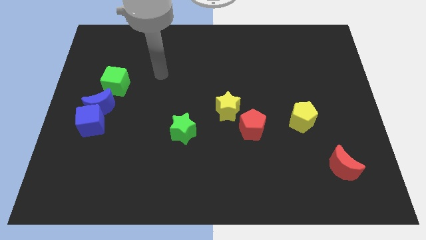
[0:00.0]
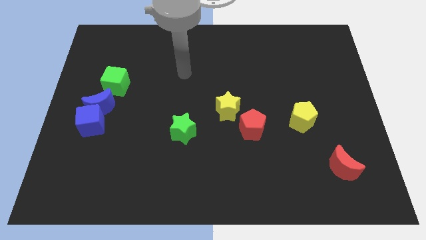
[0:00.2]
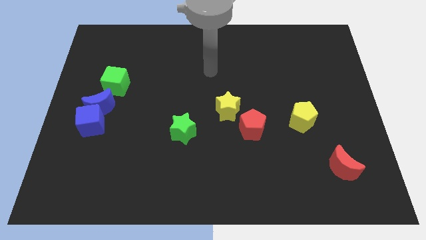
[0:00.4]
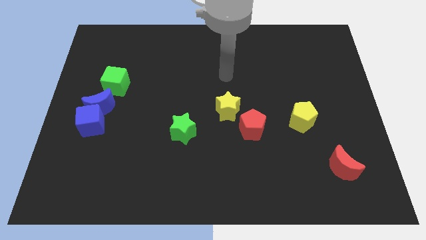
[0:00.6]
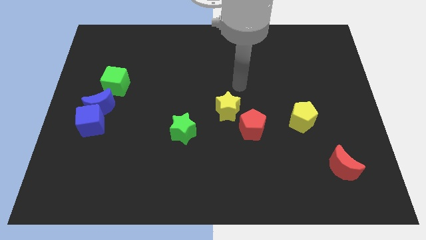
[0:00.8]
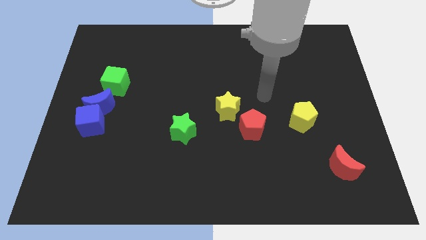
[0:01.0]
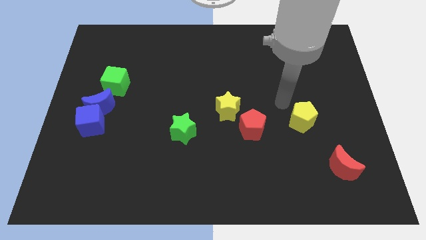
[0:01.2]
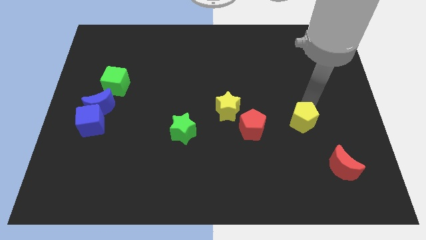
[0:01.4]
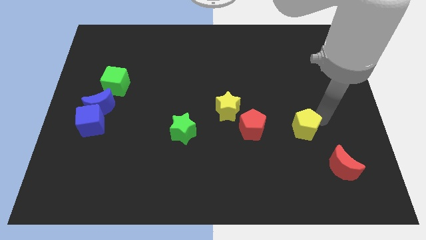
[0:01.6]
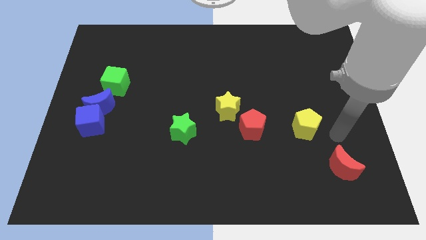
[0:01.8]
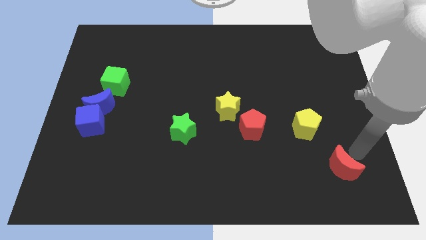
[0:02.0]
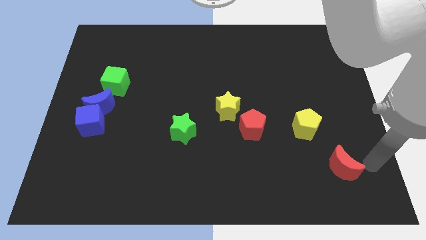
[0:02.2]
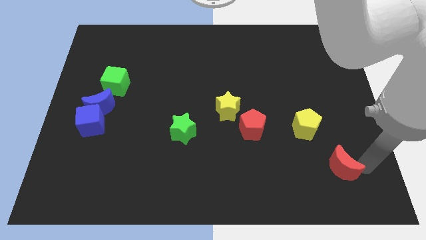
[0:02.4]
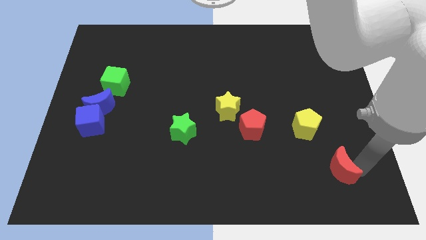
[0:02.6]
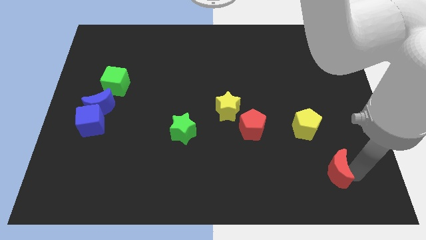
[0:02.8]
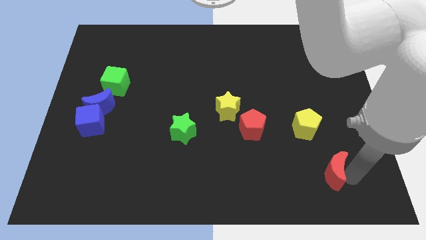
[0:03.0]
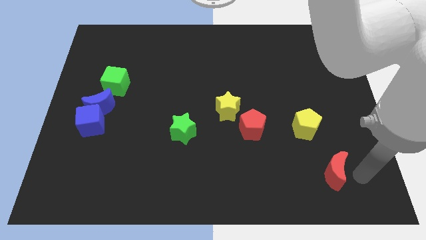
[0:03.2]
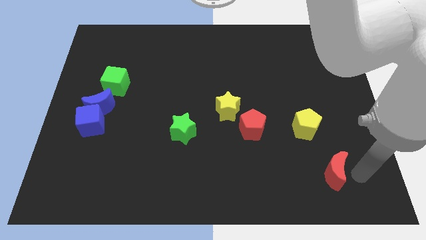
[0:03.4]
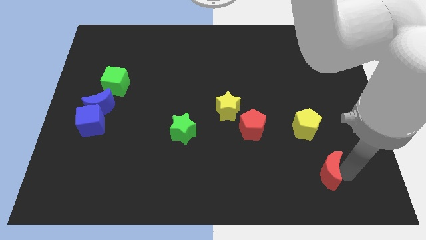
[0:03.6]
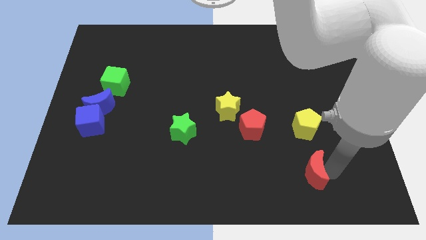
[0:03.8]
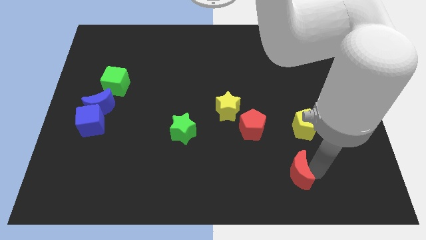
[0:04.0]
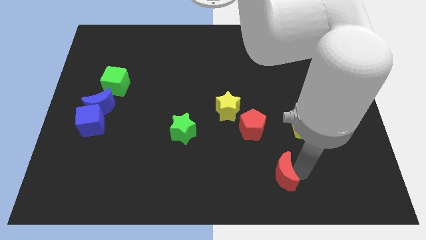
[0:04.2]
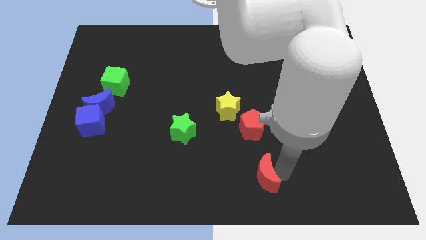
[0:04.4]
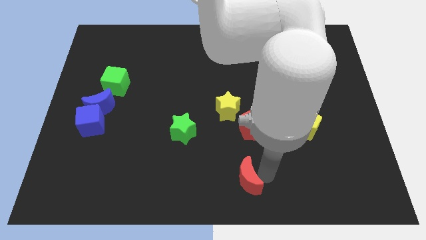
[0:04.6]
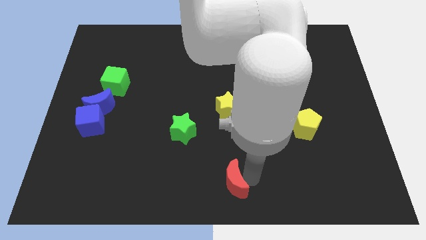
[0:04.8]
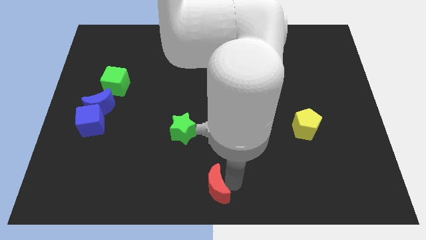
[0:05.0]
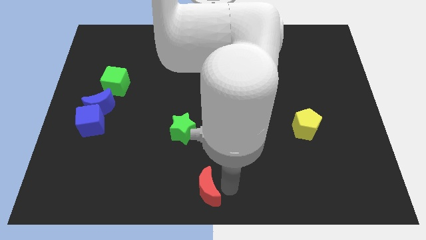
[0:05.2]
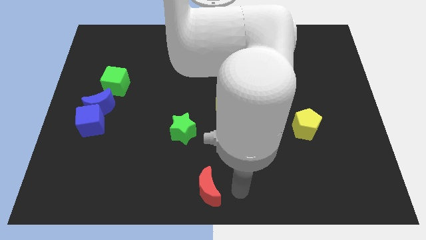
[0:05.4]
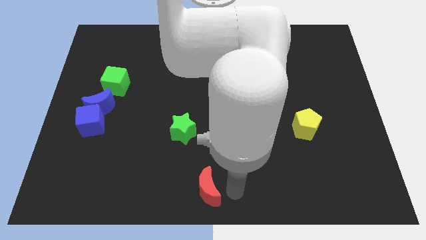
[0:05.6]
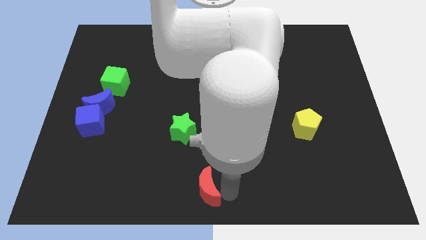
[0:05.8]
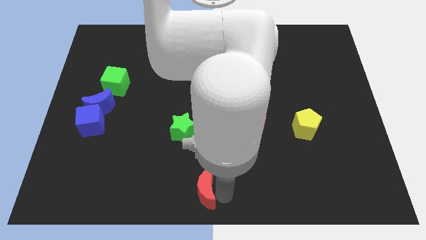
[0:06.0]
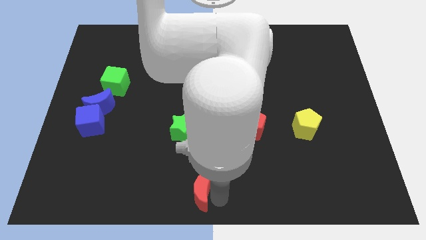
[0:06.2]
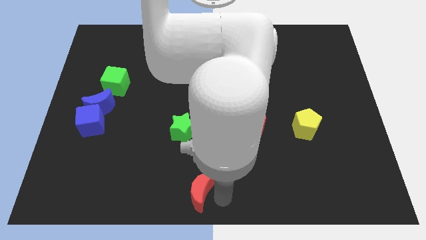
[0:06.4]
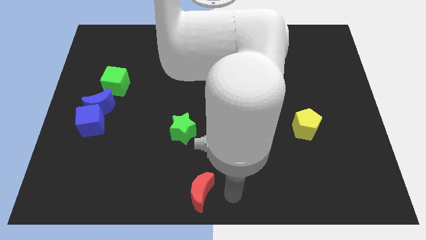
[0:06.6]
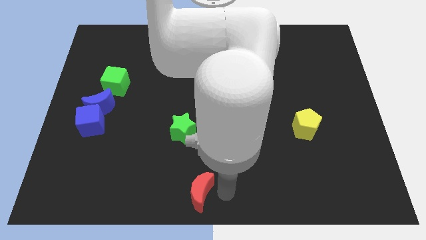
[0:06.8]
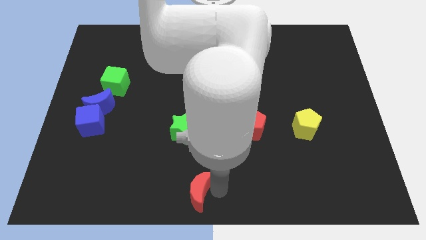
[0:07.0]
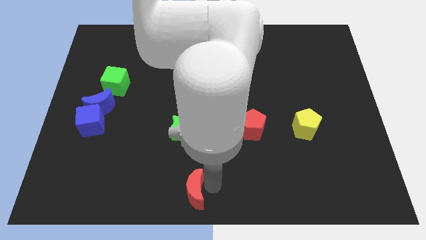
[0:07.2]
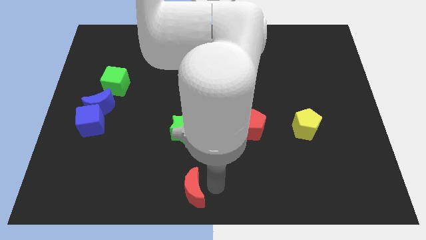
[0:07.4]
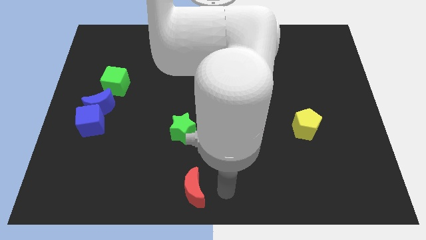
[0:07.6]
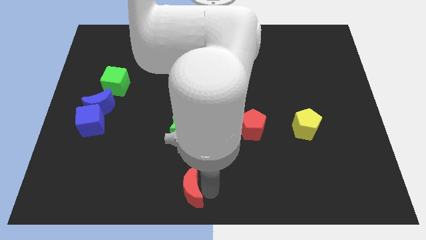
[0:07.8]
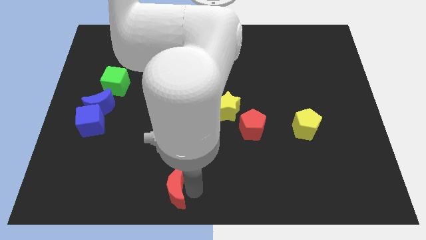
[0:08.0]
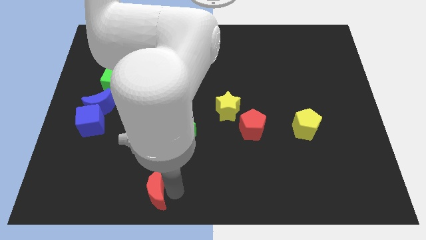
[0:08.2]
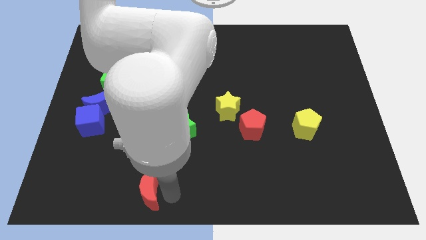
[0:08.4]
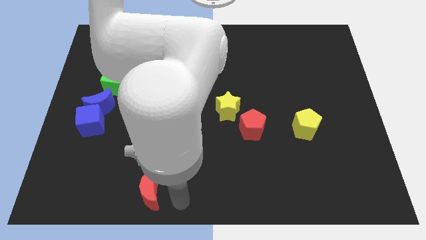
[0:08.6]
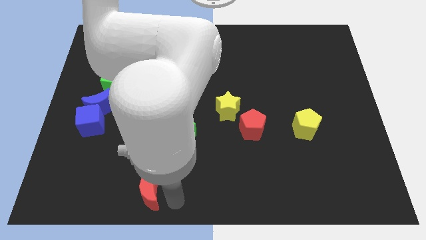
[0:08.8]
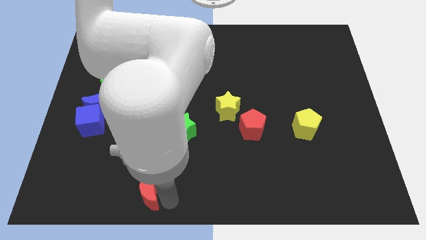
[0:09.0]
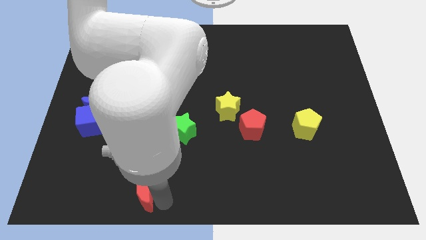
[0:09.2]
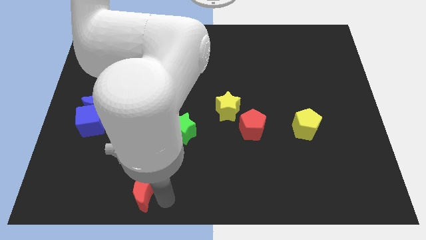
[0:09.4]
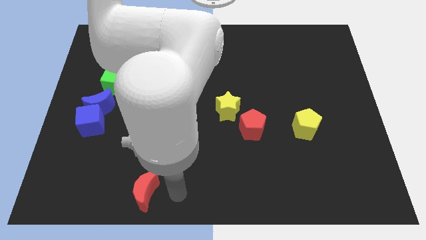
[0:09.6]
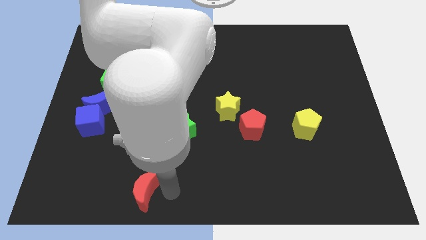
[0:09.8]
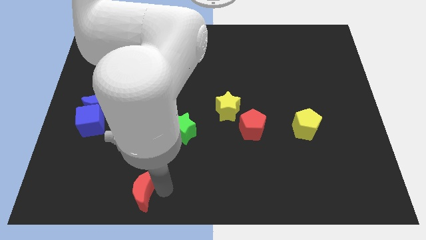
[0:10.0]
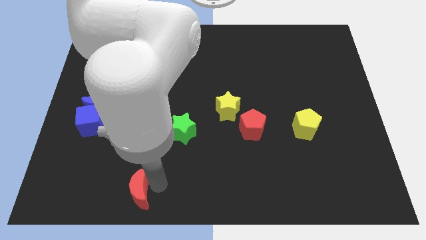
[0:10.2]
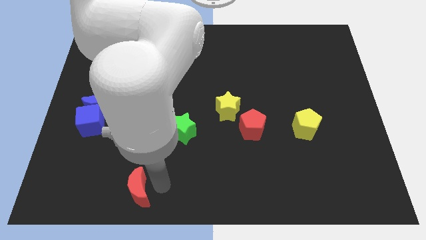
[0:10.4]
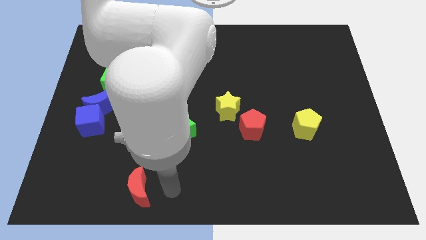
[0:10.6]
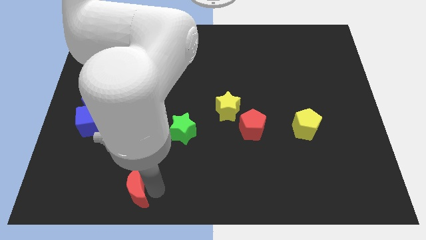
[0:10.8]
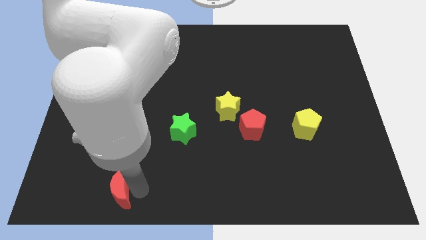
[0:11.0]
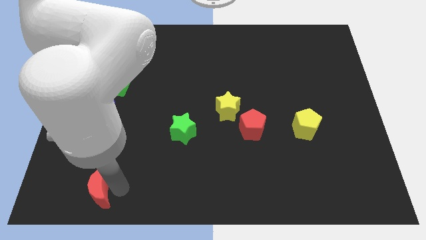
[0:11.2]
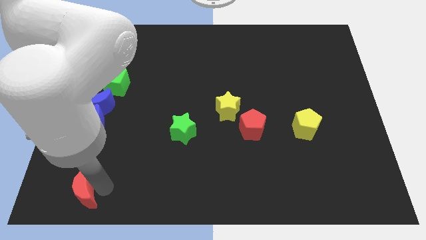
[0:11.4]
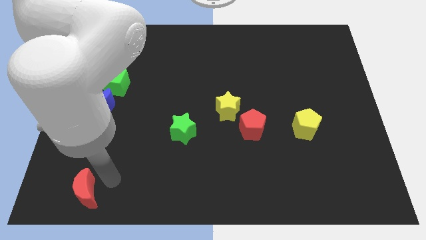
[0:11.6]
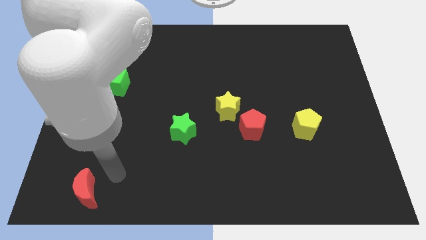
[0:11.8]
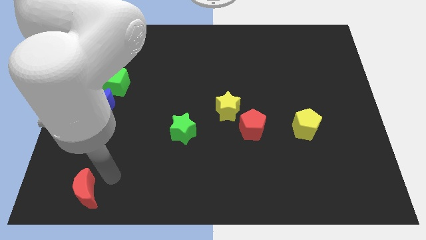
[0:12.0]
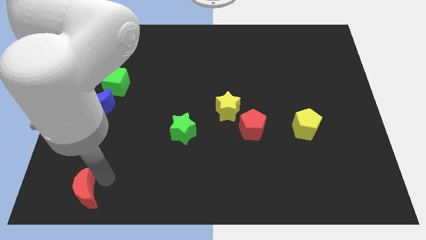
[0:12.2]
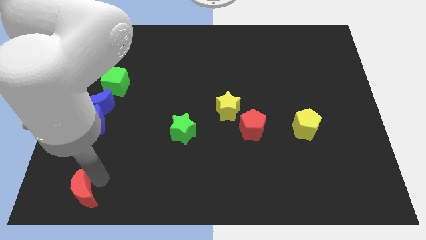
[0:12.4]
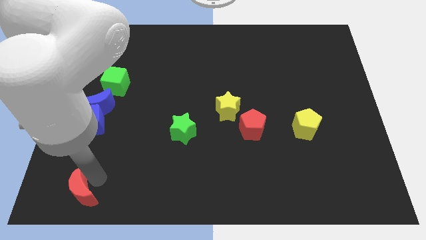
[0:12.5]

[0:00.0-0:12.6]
push the red moon to the bottom left of the board
